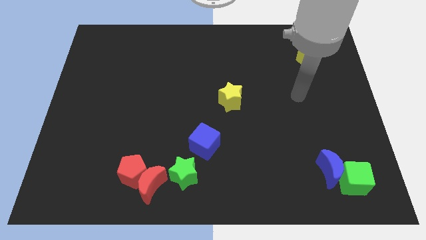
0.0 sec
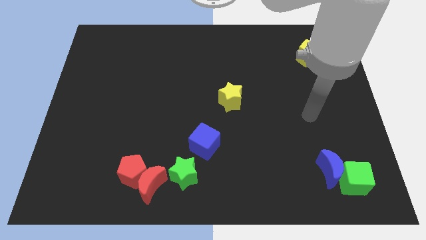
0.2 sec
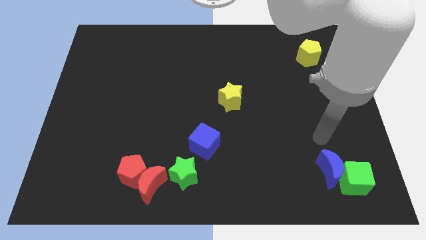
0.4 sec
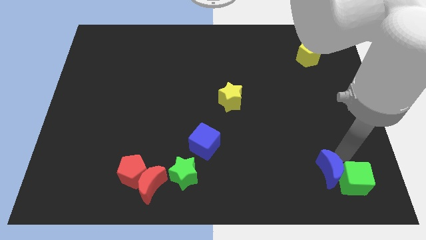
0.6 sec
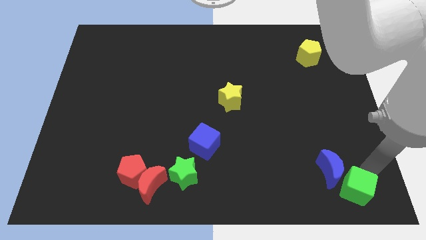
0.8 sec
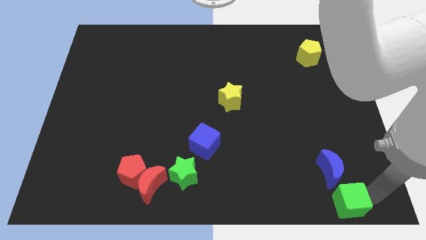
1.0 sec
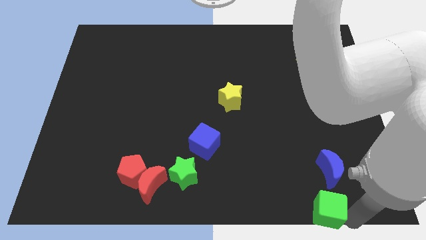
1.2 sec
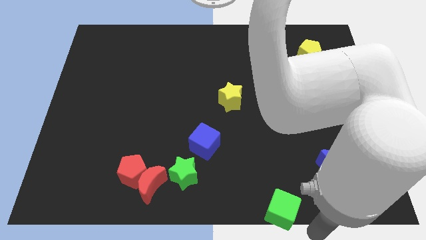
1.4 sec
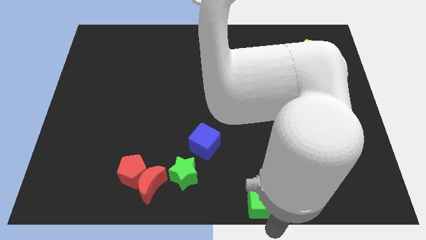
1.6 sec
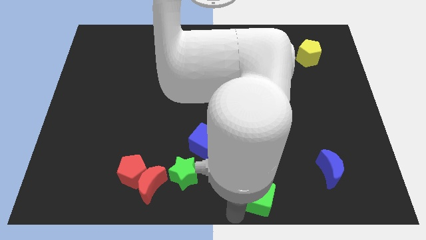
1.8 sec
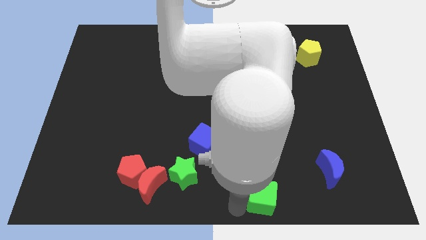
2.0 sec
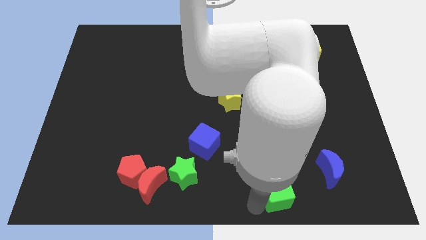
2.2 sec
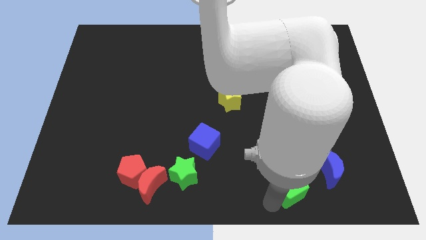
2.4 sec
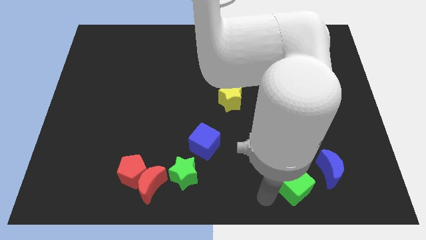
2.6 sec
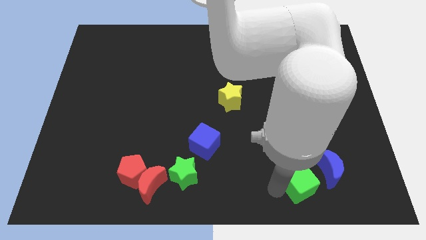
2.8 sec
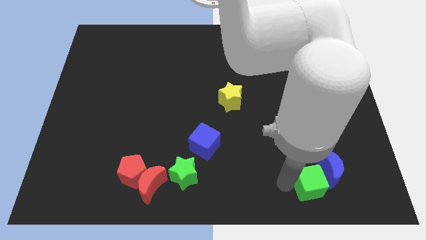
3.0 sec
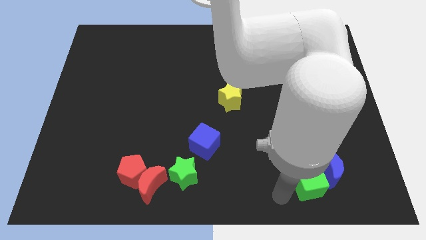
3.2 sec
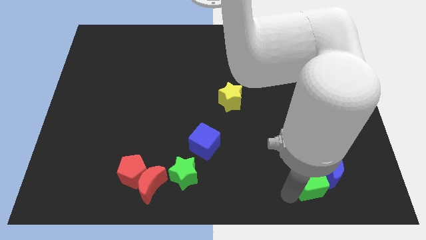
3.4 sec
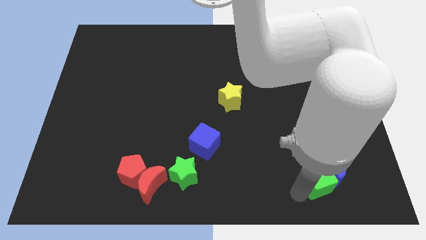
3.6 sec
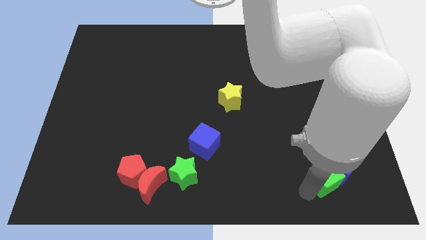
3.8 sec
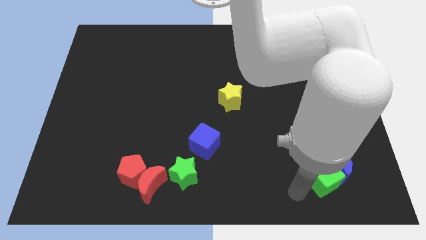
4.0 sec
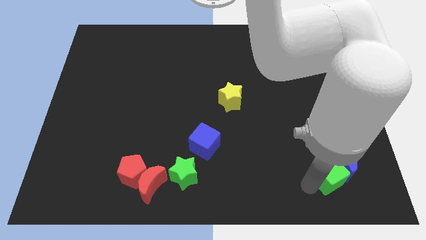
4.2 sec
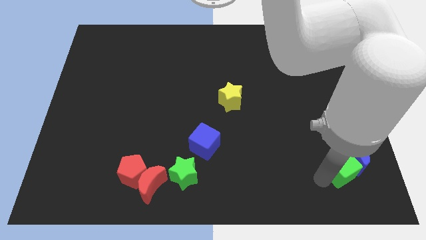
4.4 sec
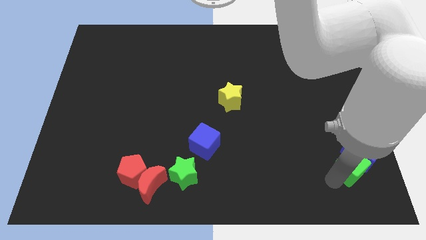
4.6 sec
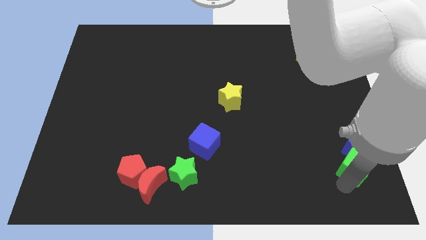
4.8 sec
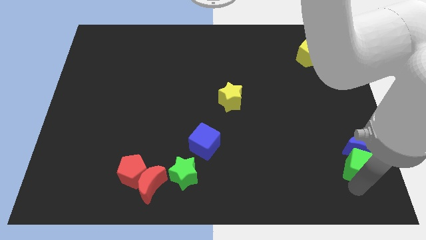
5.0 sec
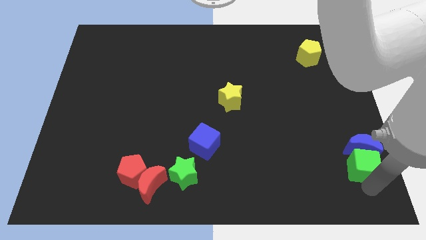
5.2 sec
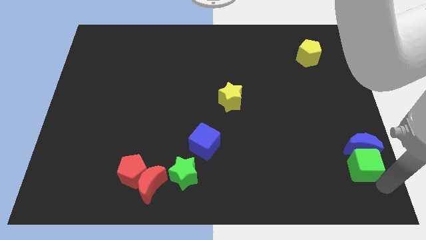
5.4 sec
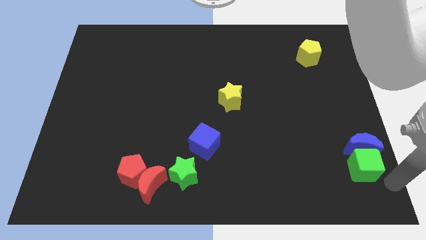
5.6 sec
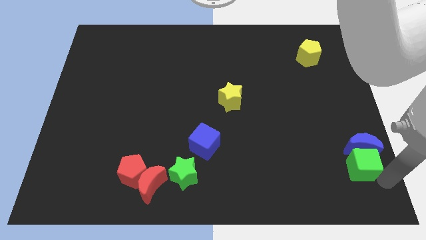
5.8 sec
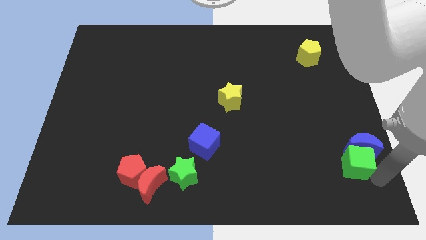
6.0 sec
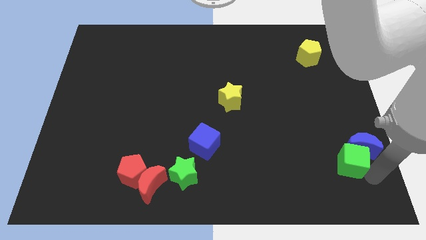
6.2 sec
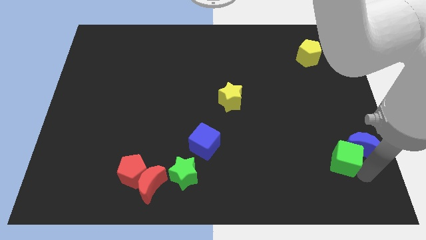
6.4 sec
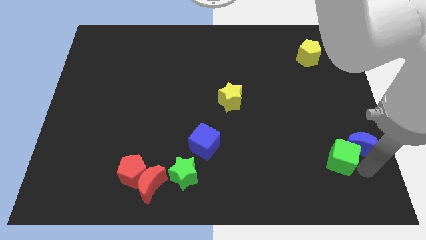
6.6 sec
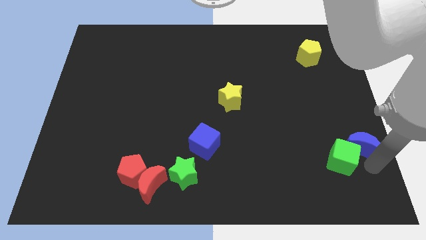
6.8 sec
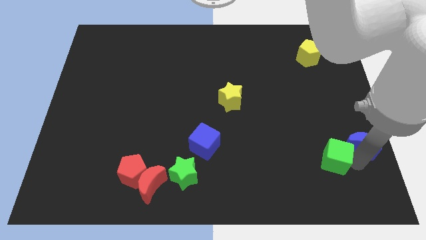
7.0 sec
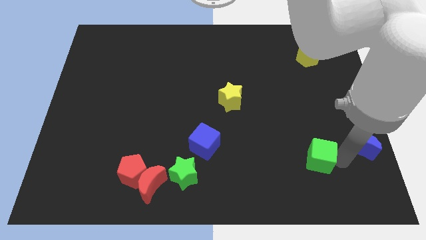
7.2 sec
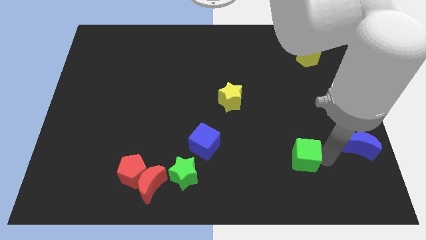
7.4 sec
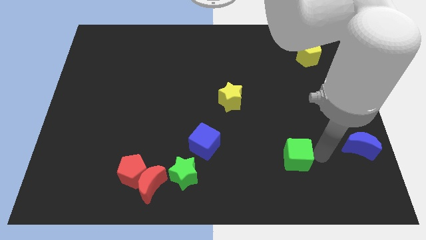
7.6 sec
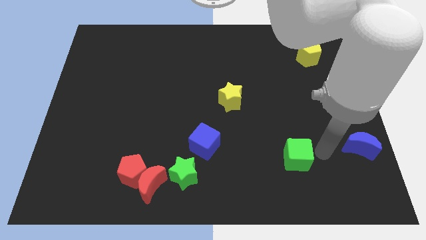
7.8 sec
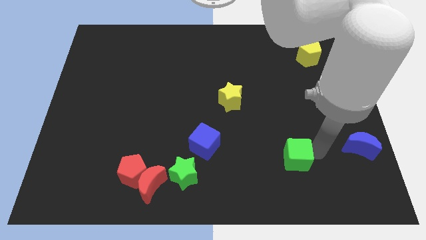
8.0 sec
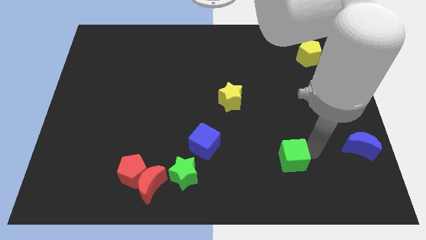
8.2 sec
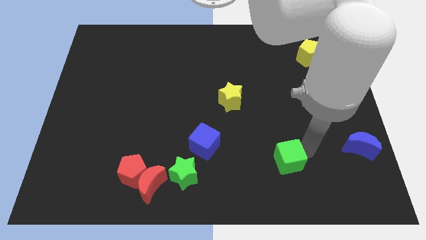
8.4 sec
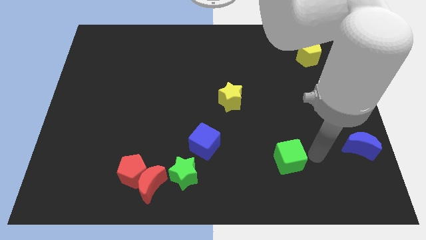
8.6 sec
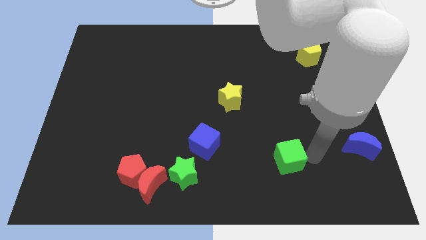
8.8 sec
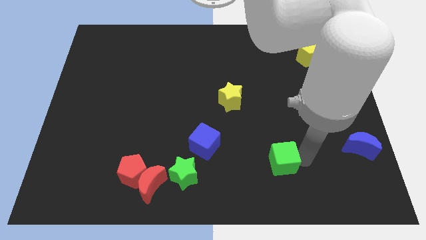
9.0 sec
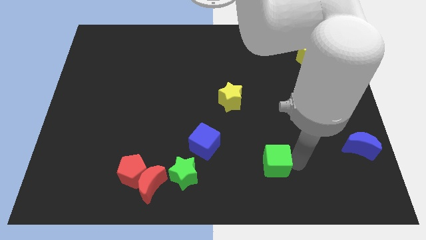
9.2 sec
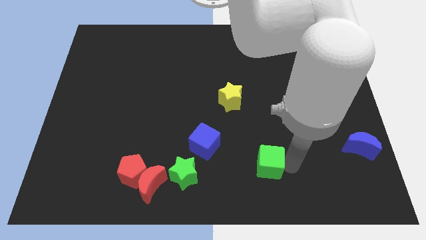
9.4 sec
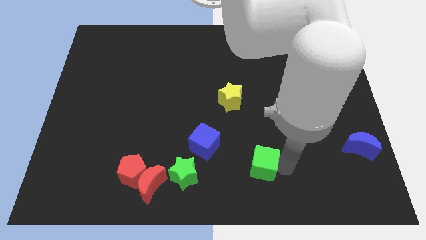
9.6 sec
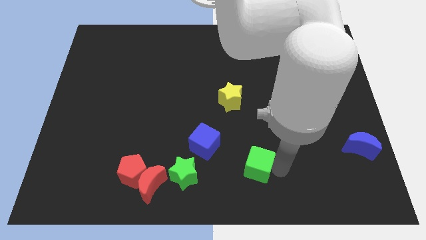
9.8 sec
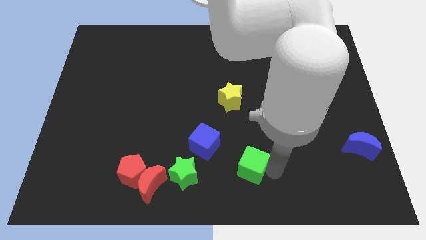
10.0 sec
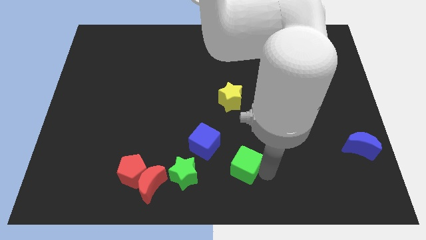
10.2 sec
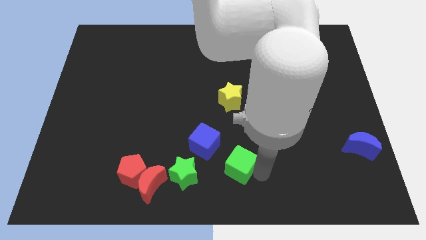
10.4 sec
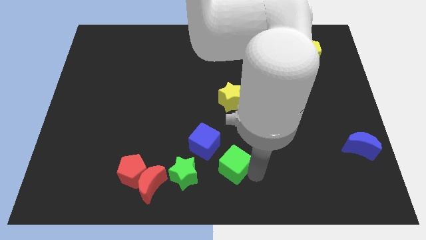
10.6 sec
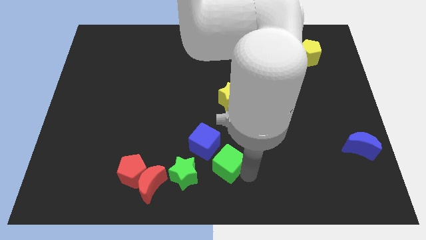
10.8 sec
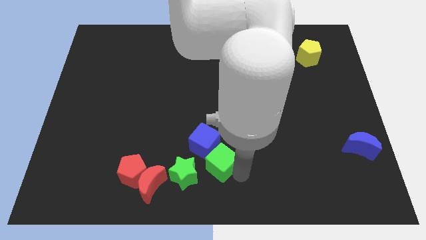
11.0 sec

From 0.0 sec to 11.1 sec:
move the green cube next to the blue cube

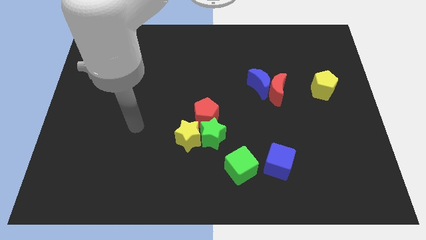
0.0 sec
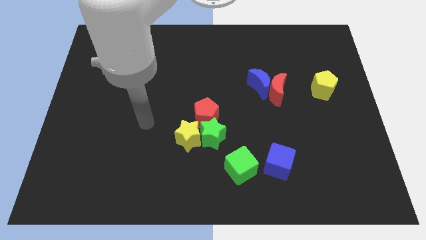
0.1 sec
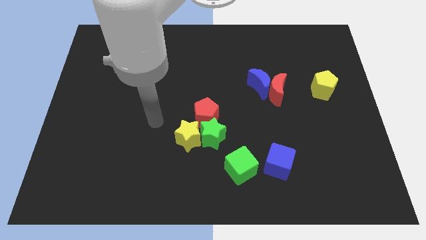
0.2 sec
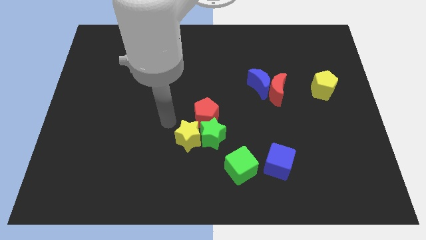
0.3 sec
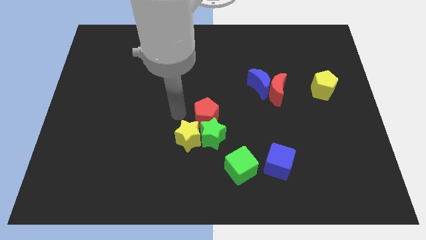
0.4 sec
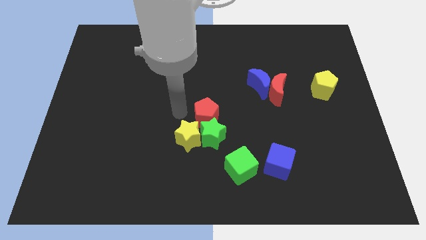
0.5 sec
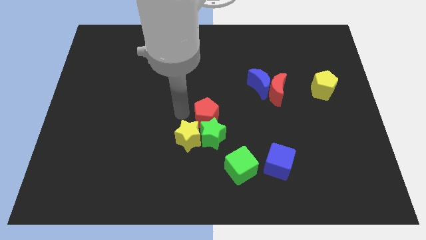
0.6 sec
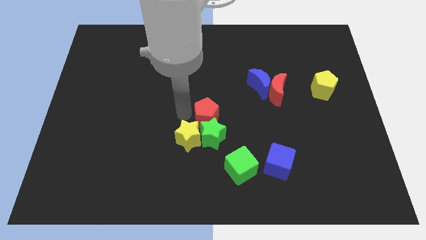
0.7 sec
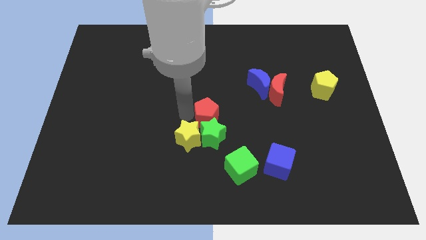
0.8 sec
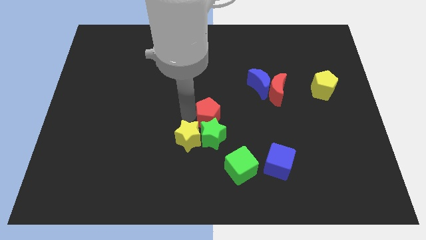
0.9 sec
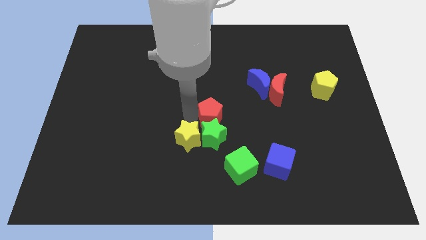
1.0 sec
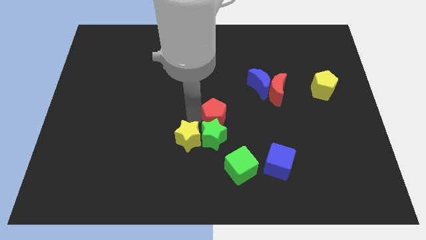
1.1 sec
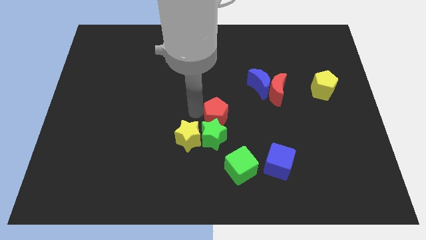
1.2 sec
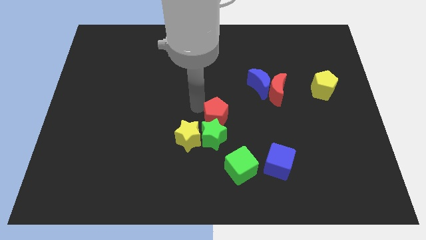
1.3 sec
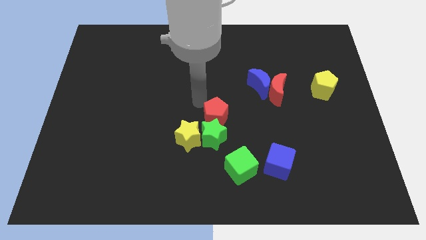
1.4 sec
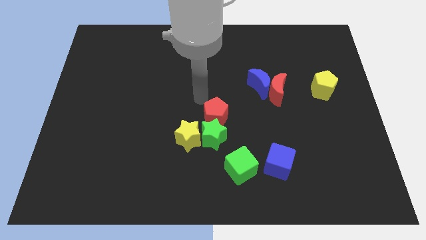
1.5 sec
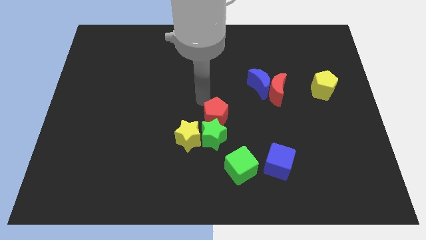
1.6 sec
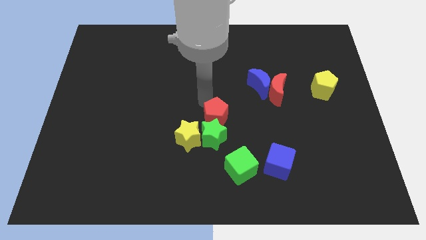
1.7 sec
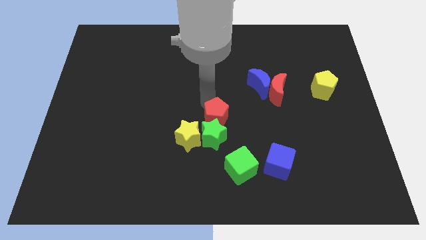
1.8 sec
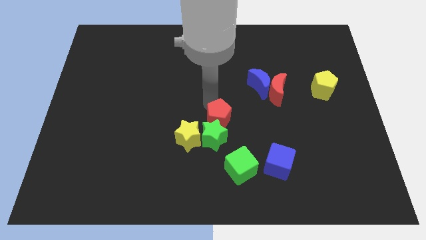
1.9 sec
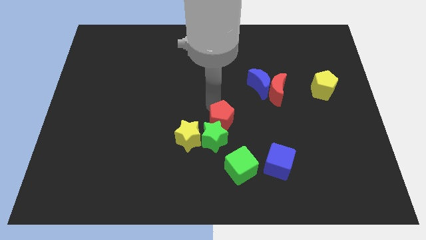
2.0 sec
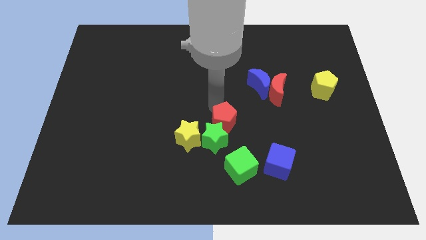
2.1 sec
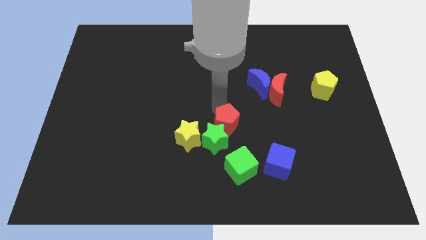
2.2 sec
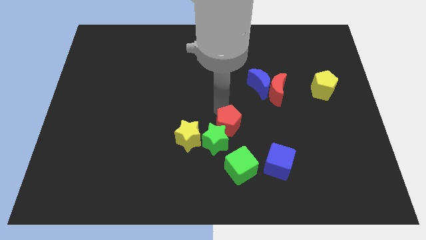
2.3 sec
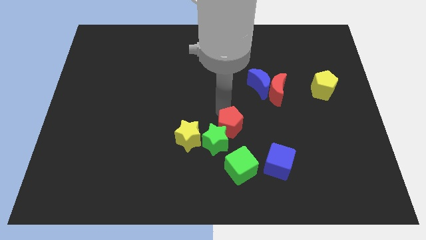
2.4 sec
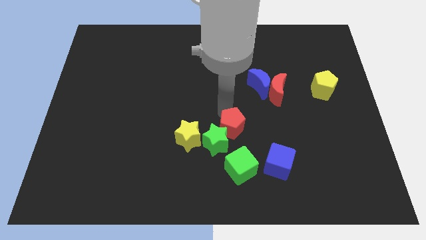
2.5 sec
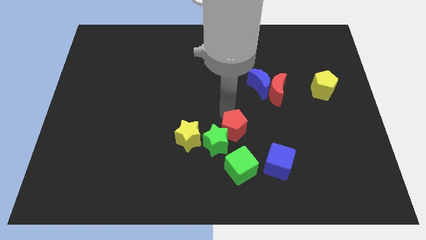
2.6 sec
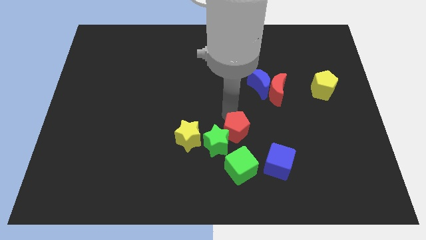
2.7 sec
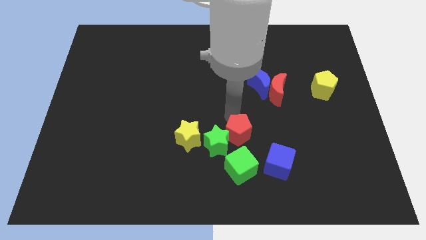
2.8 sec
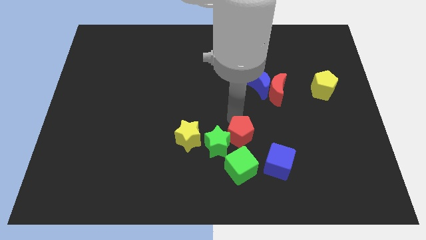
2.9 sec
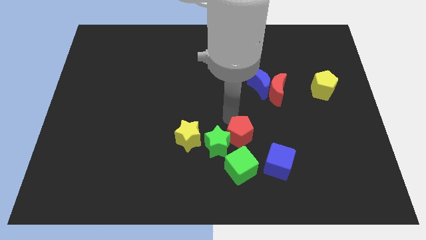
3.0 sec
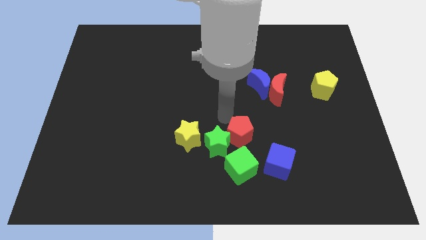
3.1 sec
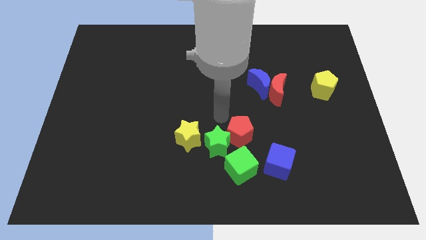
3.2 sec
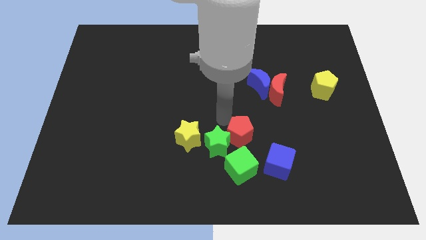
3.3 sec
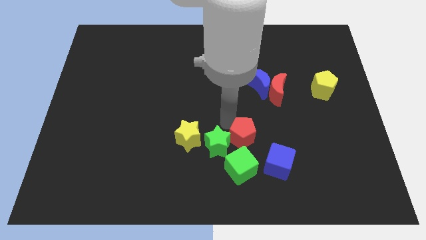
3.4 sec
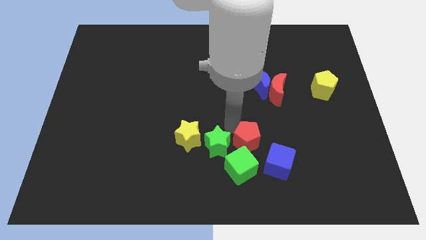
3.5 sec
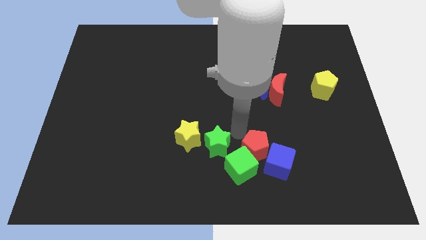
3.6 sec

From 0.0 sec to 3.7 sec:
put the red pentagon next to the blue cube
